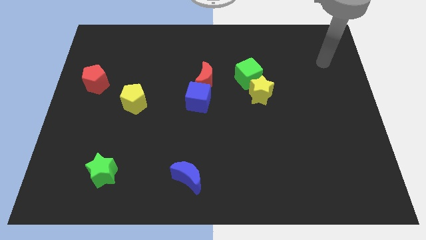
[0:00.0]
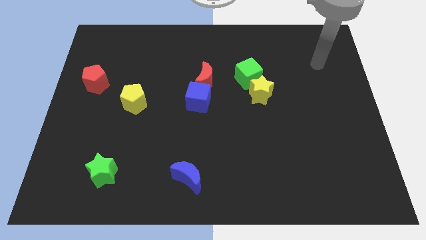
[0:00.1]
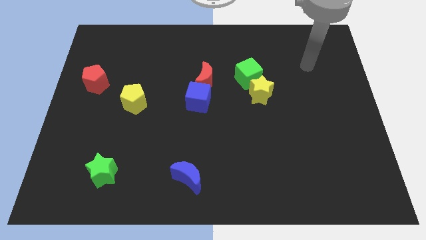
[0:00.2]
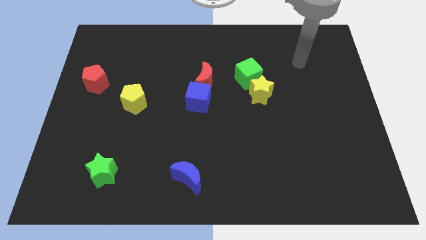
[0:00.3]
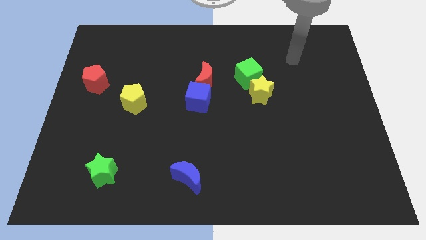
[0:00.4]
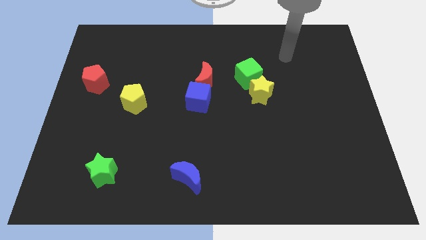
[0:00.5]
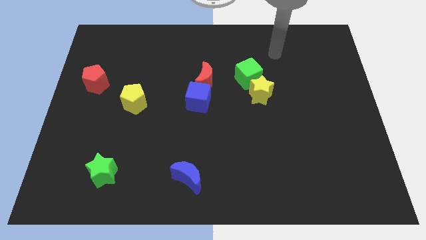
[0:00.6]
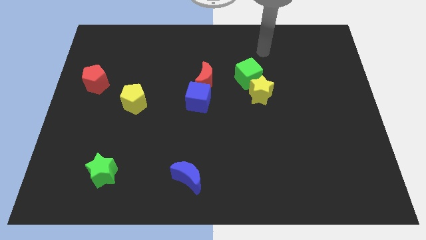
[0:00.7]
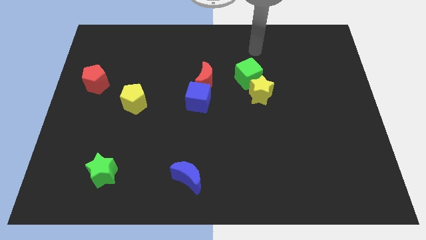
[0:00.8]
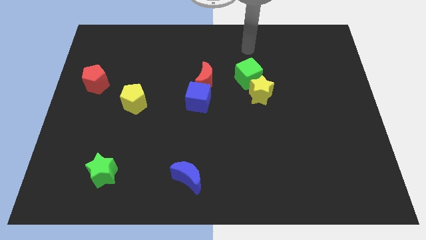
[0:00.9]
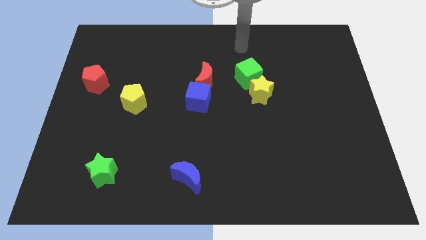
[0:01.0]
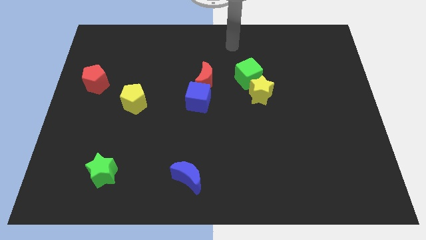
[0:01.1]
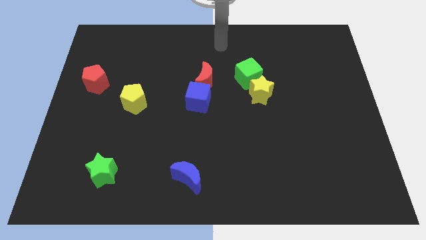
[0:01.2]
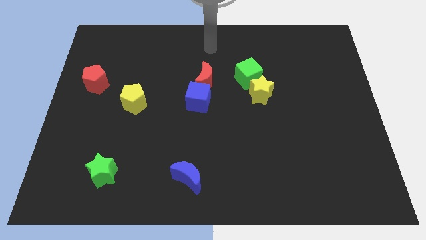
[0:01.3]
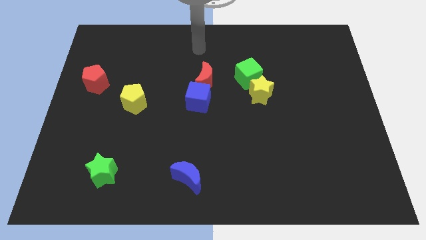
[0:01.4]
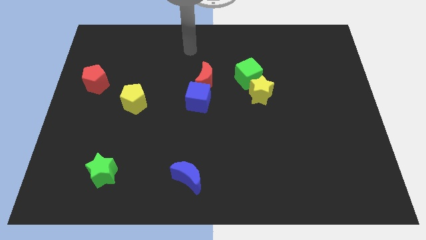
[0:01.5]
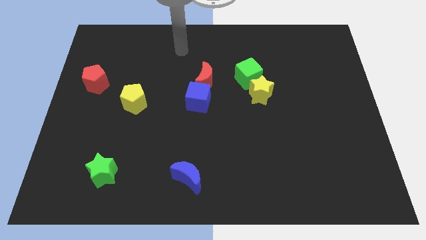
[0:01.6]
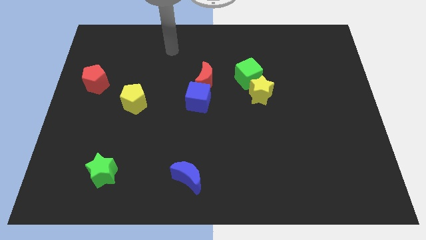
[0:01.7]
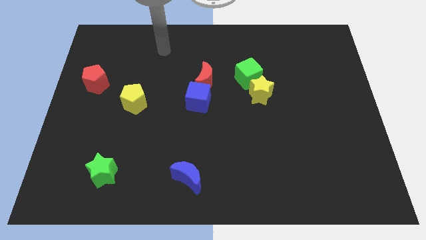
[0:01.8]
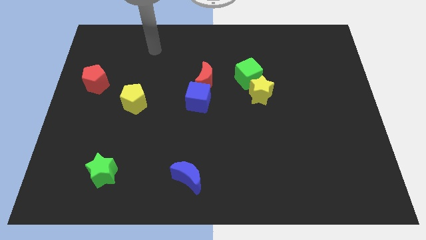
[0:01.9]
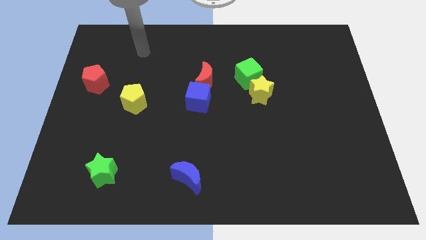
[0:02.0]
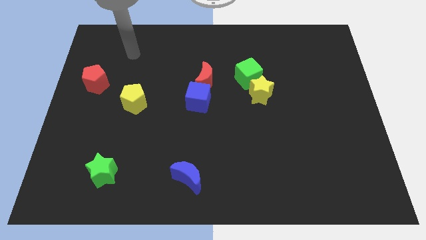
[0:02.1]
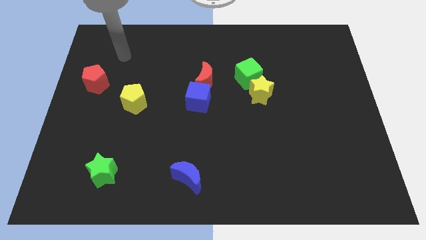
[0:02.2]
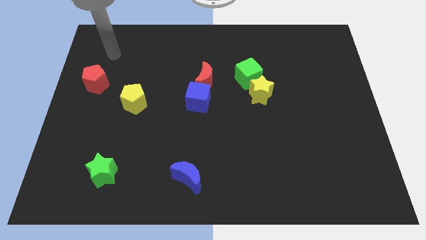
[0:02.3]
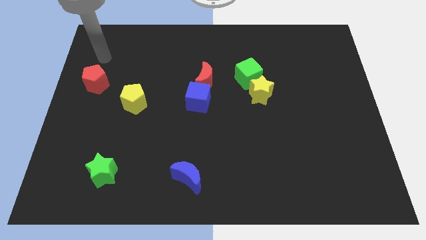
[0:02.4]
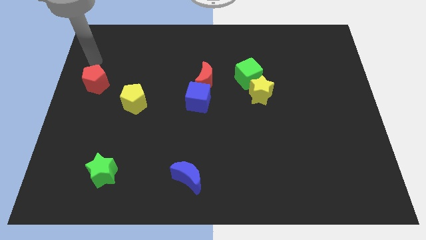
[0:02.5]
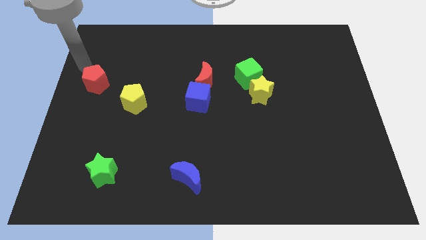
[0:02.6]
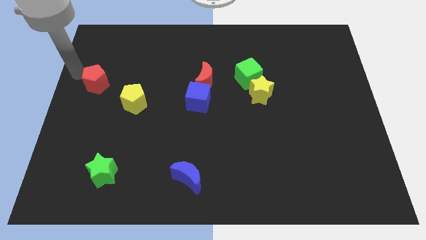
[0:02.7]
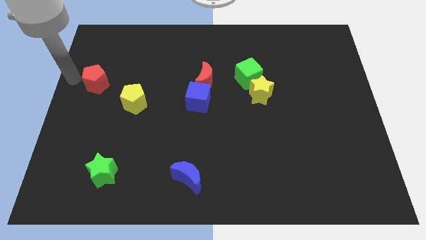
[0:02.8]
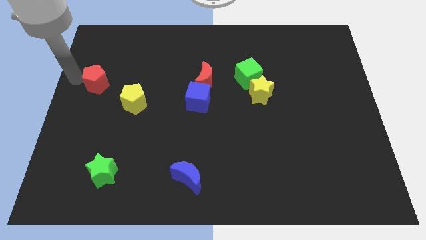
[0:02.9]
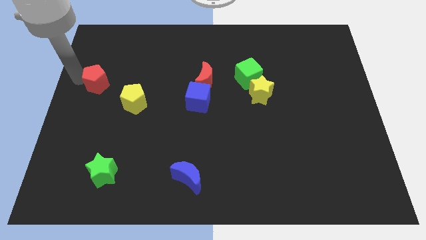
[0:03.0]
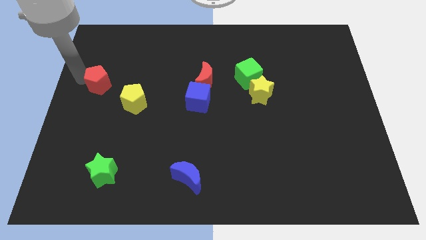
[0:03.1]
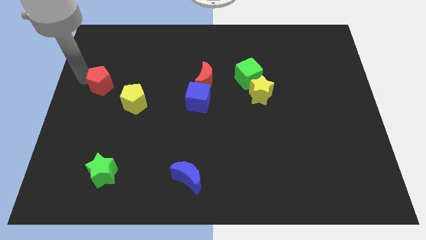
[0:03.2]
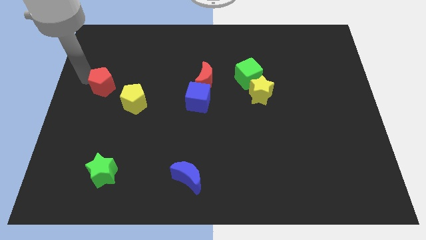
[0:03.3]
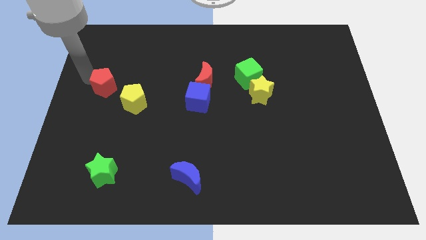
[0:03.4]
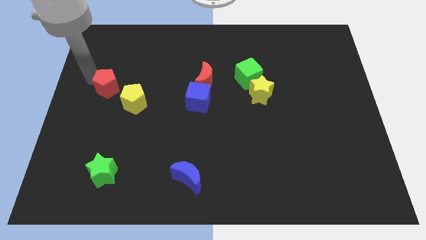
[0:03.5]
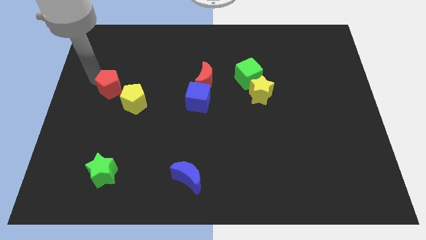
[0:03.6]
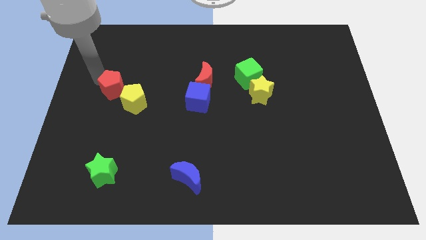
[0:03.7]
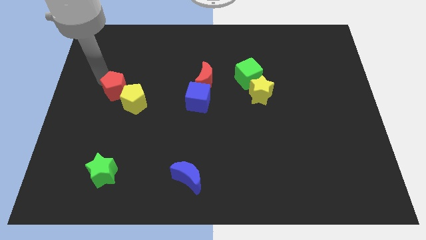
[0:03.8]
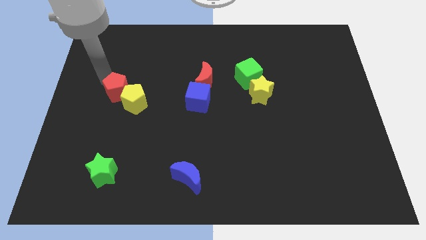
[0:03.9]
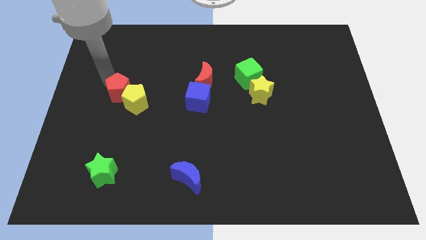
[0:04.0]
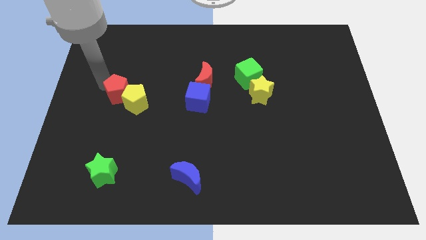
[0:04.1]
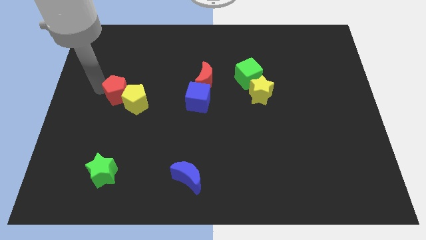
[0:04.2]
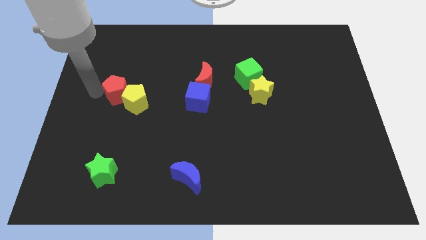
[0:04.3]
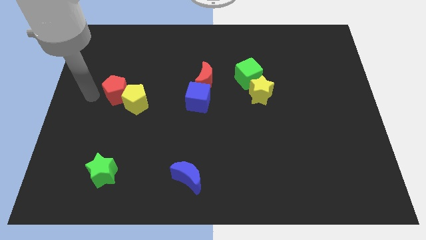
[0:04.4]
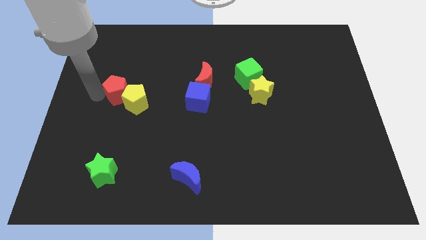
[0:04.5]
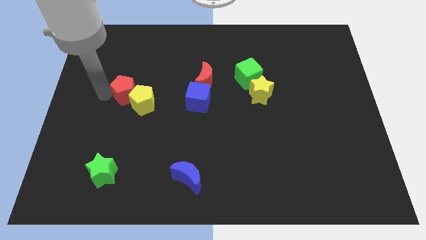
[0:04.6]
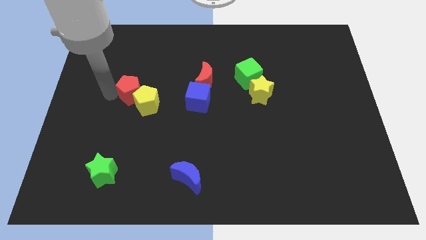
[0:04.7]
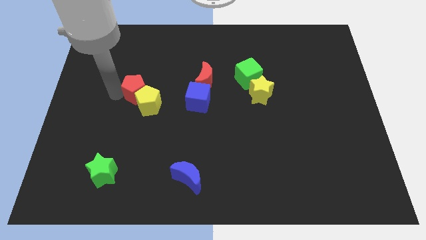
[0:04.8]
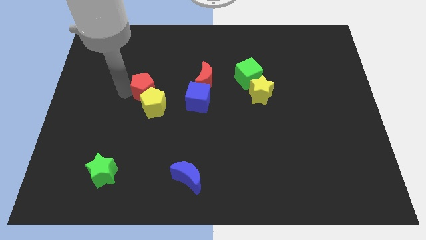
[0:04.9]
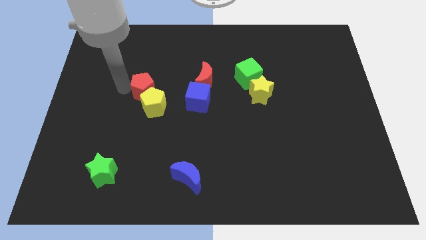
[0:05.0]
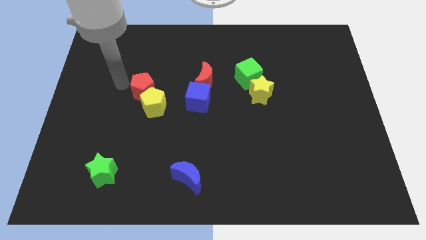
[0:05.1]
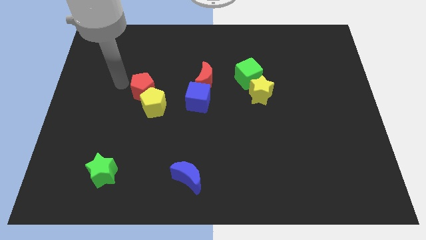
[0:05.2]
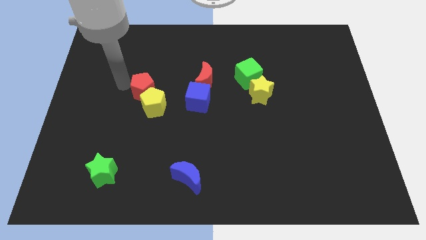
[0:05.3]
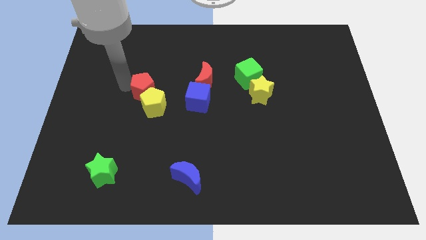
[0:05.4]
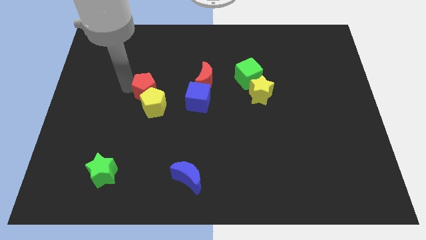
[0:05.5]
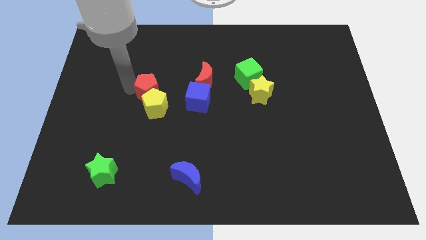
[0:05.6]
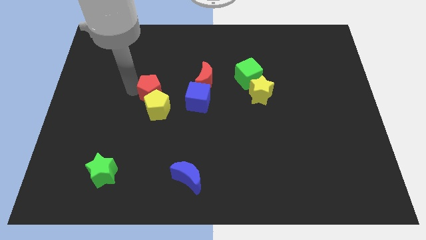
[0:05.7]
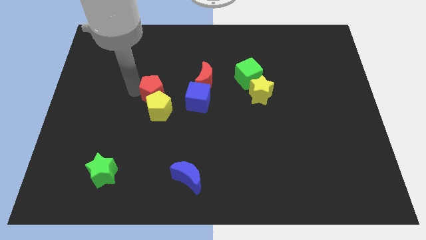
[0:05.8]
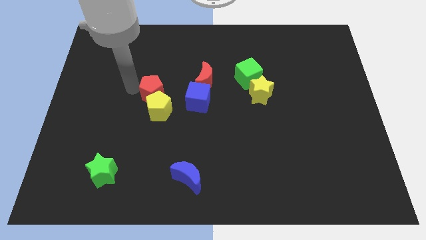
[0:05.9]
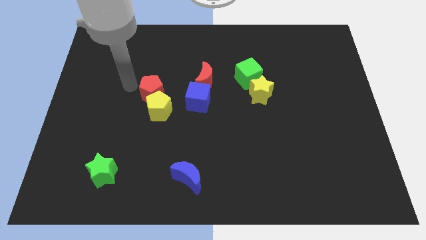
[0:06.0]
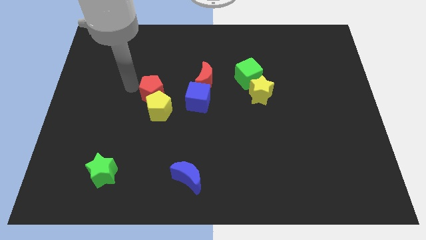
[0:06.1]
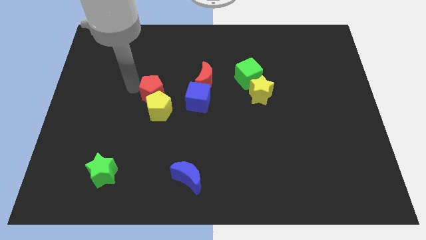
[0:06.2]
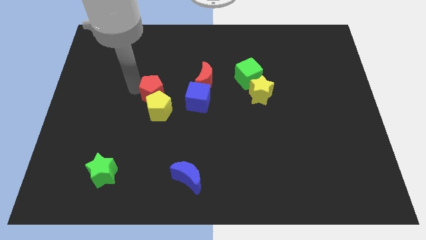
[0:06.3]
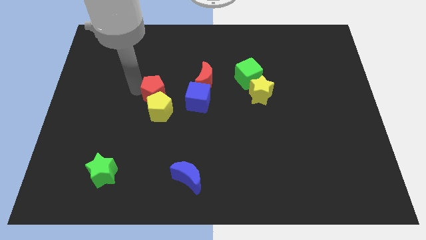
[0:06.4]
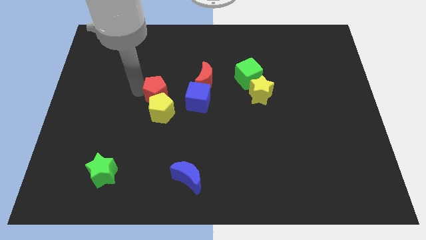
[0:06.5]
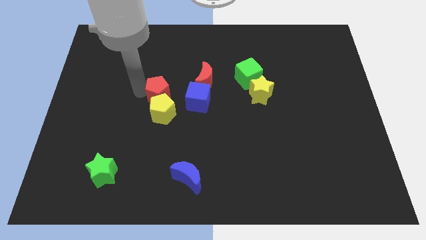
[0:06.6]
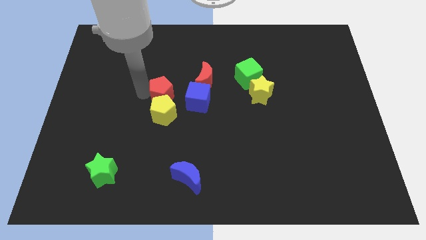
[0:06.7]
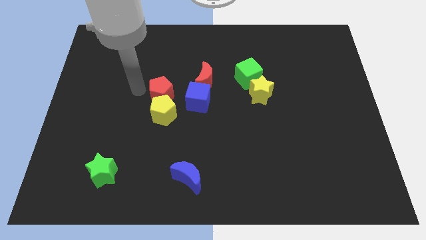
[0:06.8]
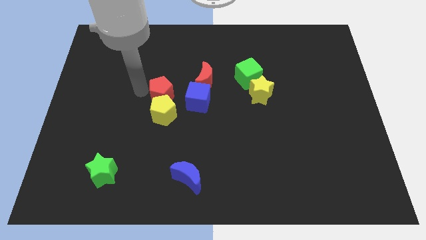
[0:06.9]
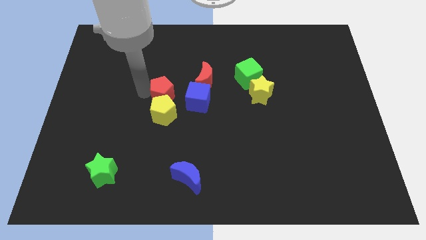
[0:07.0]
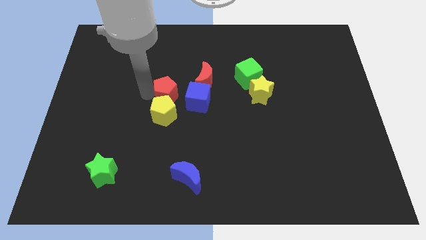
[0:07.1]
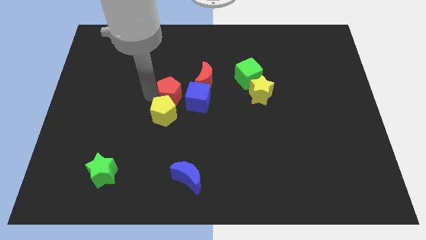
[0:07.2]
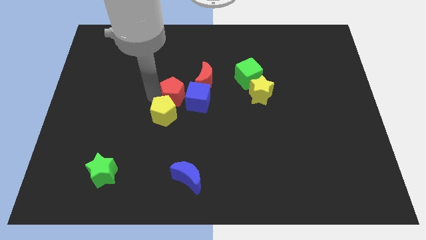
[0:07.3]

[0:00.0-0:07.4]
slide the red pentagon to the blue cube
